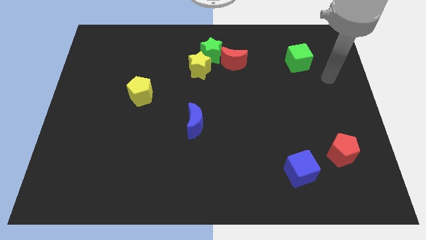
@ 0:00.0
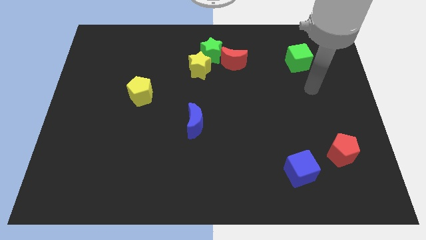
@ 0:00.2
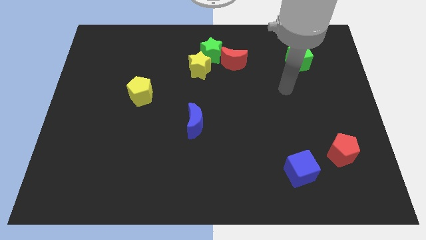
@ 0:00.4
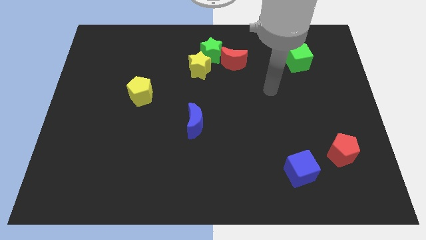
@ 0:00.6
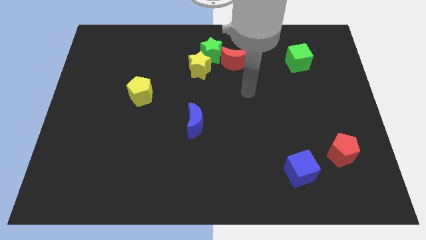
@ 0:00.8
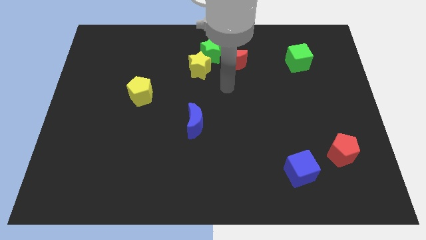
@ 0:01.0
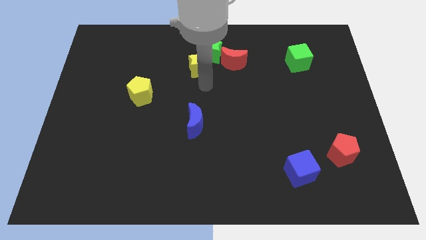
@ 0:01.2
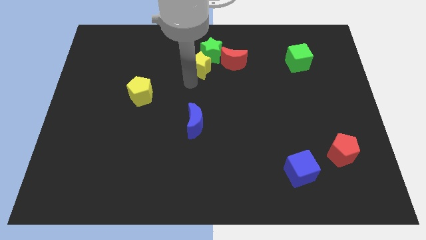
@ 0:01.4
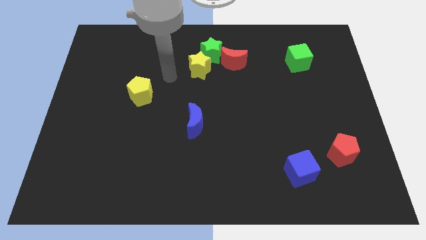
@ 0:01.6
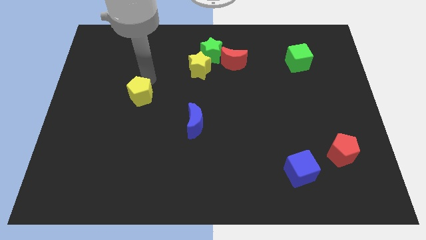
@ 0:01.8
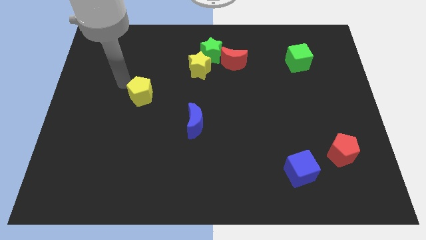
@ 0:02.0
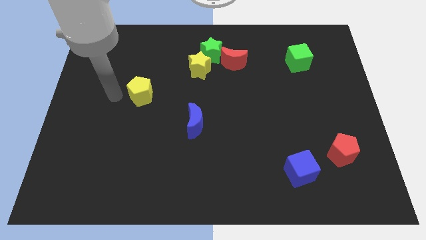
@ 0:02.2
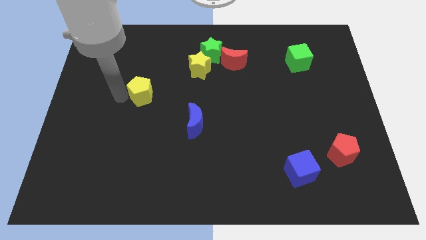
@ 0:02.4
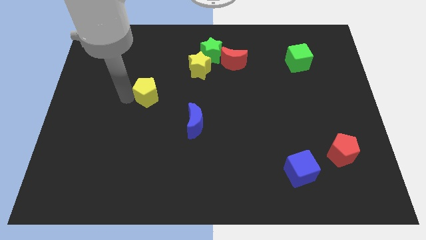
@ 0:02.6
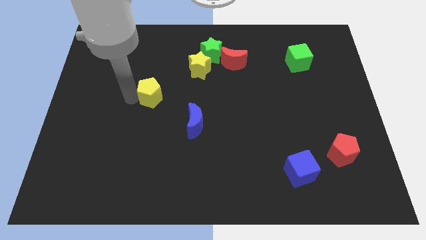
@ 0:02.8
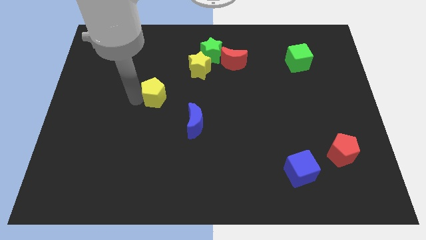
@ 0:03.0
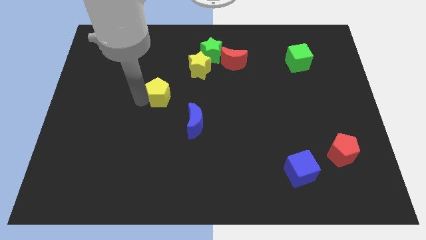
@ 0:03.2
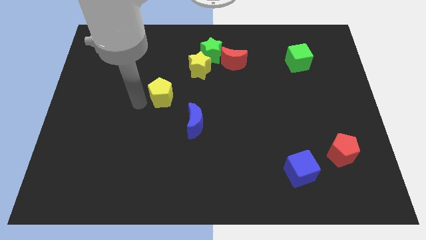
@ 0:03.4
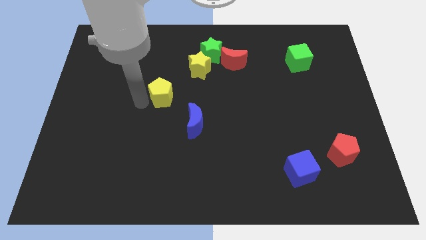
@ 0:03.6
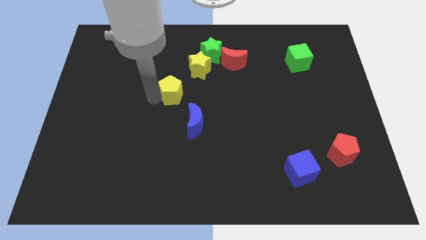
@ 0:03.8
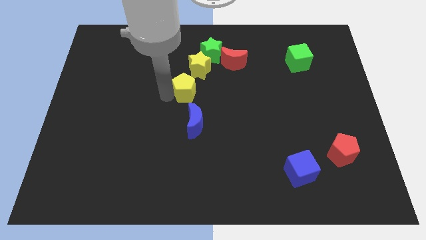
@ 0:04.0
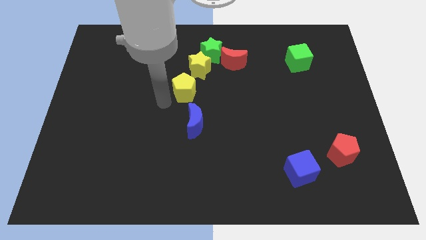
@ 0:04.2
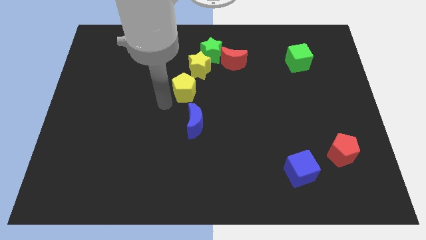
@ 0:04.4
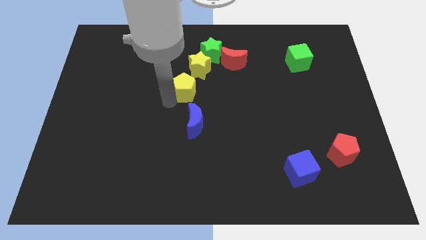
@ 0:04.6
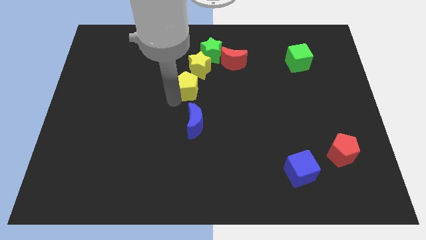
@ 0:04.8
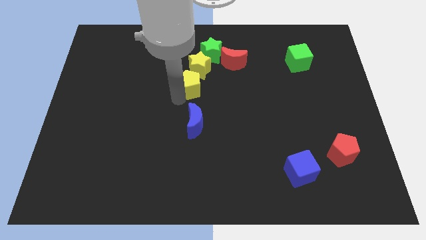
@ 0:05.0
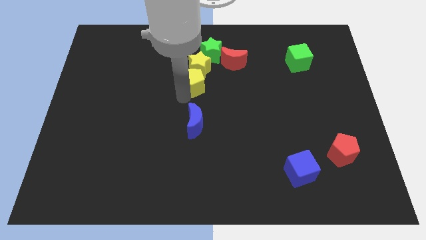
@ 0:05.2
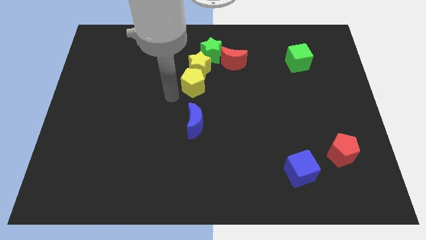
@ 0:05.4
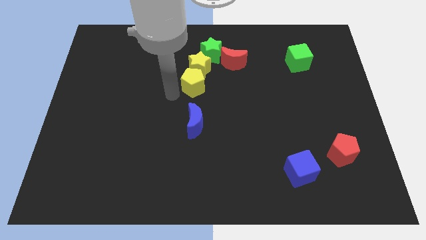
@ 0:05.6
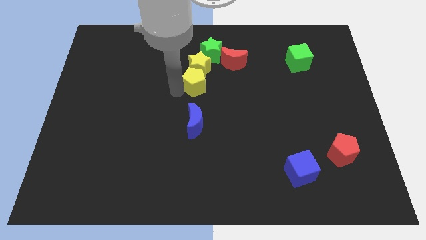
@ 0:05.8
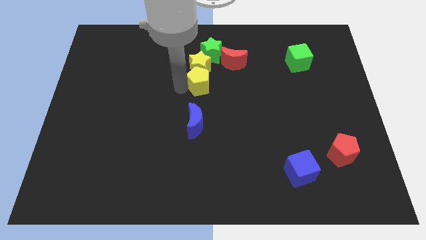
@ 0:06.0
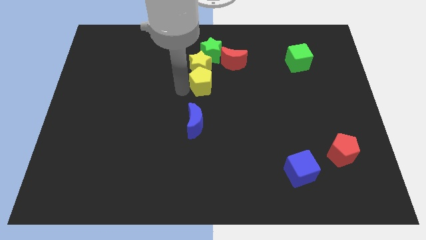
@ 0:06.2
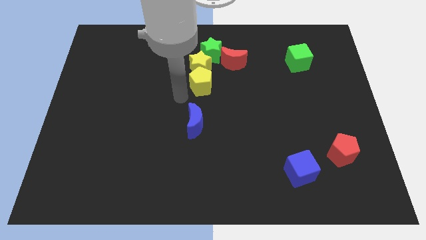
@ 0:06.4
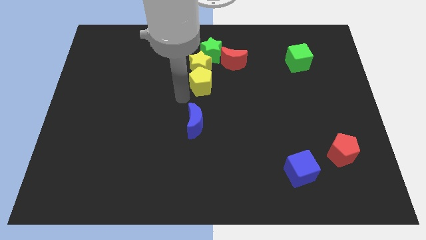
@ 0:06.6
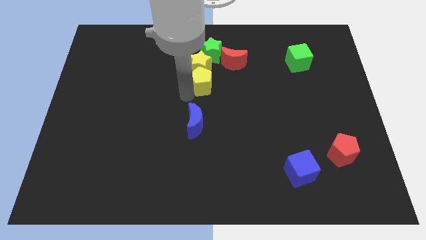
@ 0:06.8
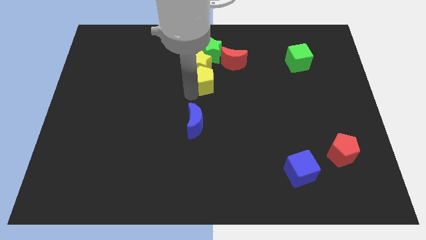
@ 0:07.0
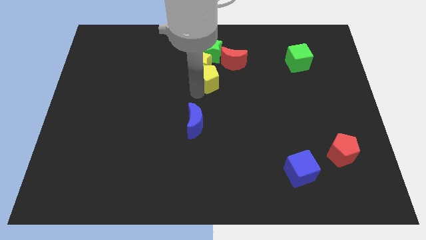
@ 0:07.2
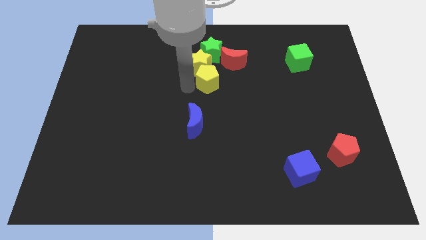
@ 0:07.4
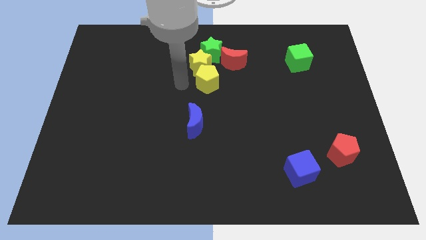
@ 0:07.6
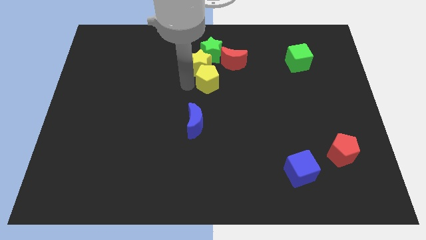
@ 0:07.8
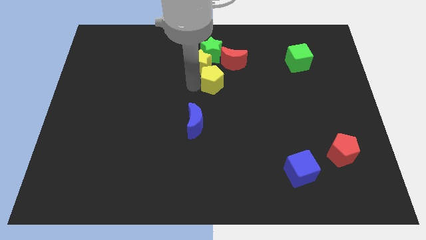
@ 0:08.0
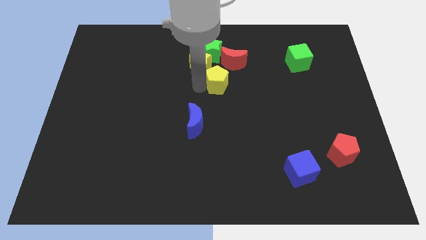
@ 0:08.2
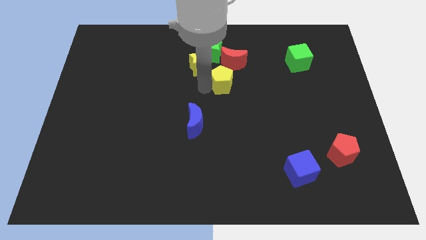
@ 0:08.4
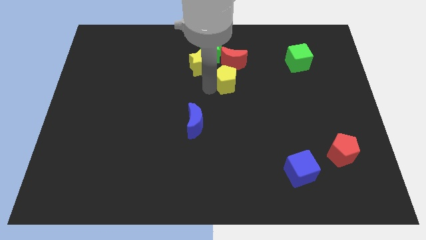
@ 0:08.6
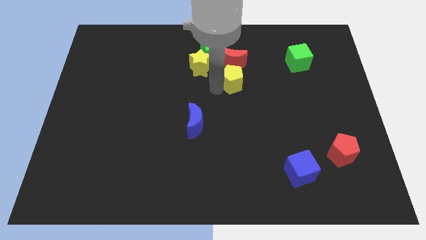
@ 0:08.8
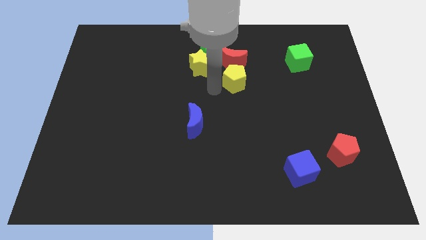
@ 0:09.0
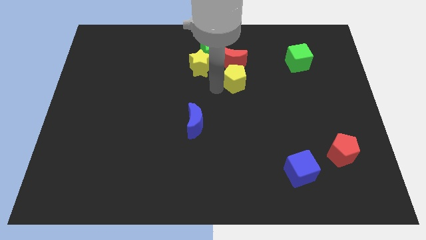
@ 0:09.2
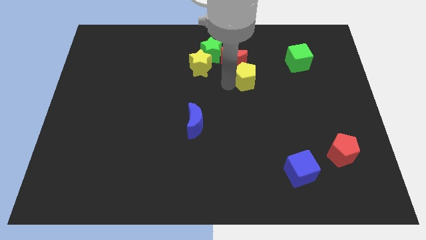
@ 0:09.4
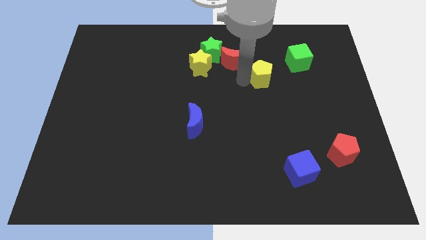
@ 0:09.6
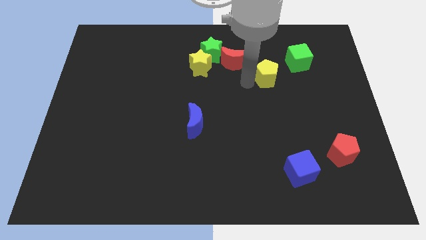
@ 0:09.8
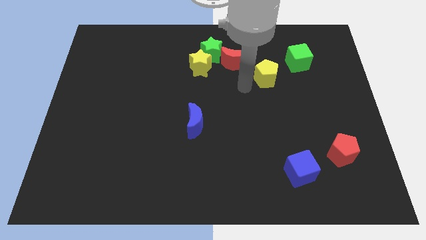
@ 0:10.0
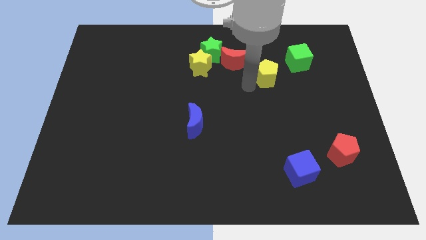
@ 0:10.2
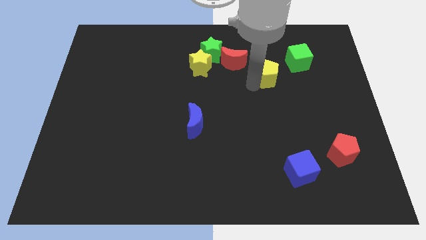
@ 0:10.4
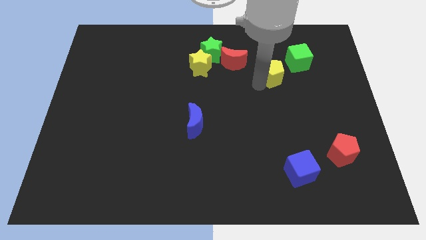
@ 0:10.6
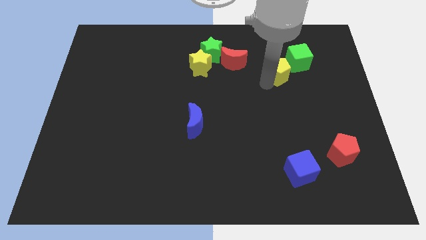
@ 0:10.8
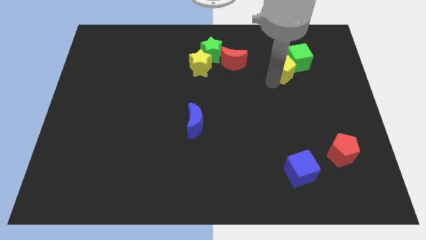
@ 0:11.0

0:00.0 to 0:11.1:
put the yellow pentagon close to the green cube

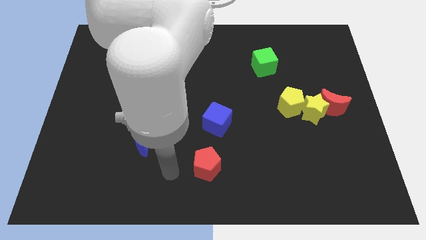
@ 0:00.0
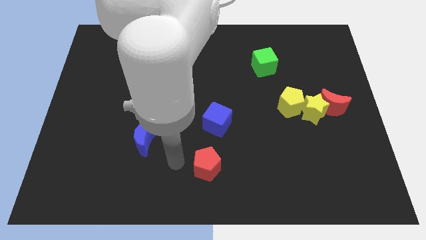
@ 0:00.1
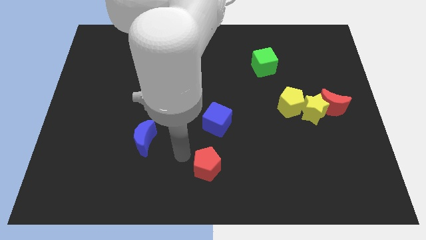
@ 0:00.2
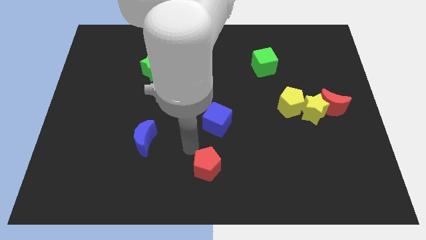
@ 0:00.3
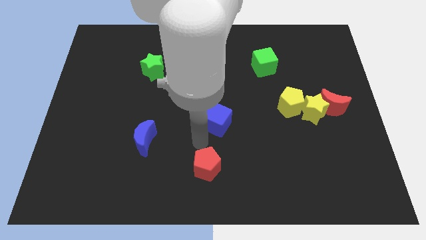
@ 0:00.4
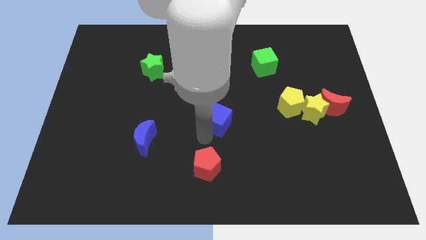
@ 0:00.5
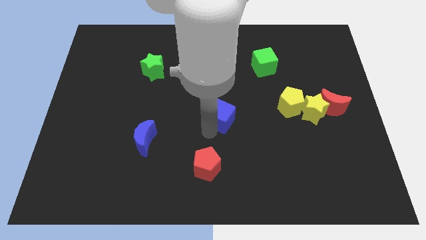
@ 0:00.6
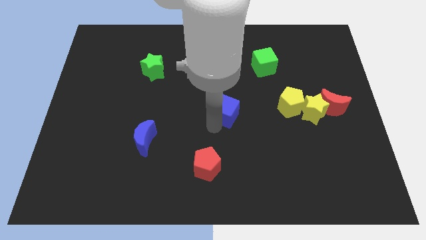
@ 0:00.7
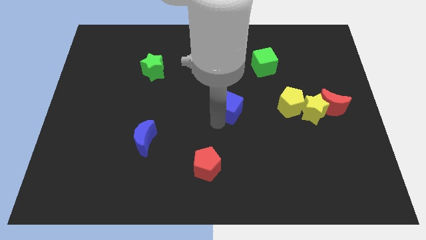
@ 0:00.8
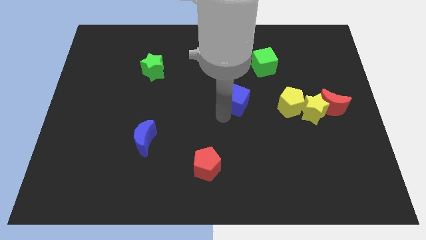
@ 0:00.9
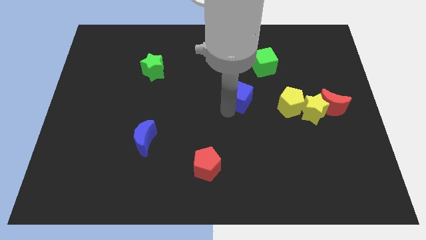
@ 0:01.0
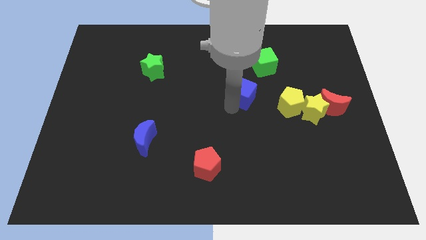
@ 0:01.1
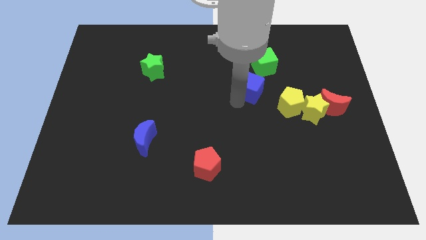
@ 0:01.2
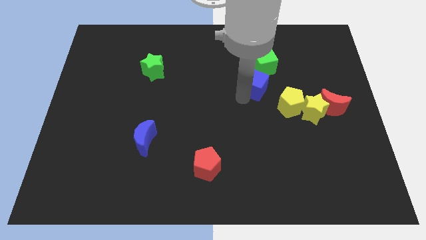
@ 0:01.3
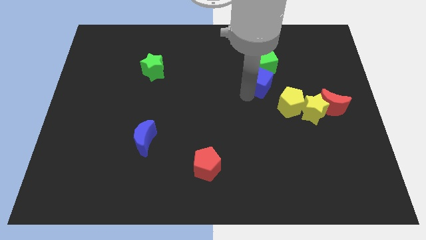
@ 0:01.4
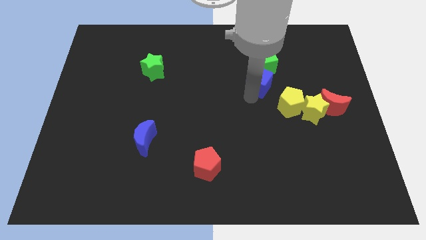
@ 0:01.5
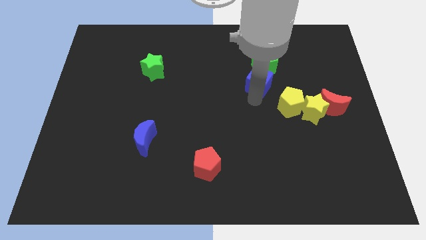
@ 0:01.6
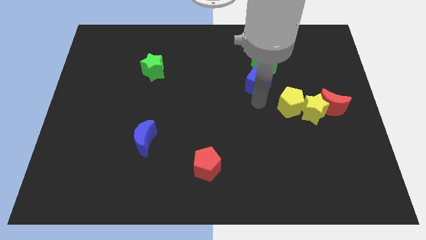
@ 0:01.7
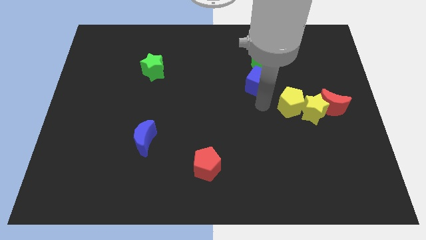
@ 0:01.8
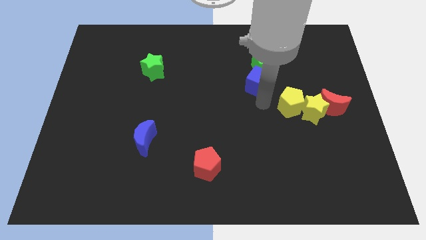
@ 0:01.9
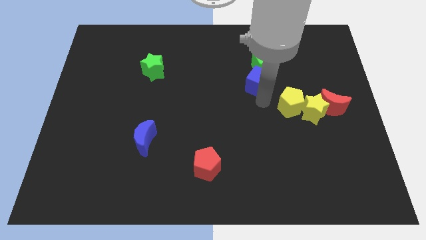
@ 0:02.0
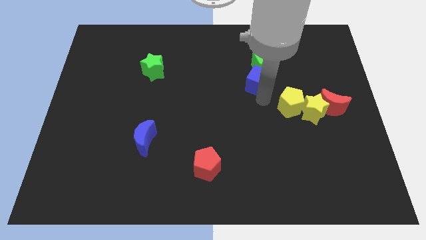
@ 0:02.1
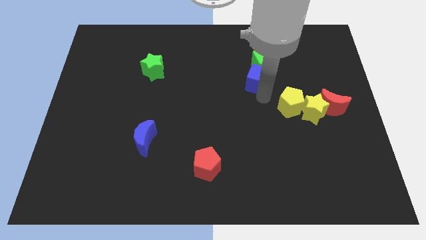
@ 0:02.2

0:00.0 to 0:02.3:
slide the blue cube towards the green cube
